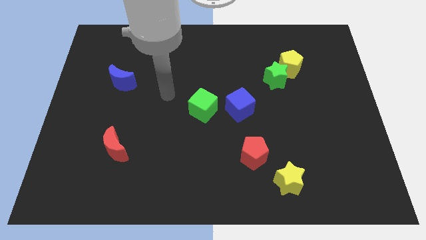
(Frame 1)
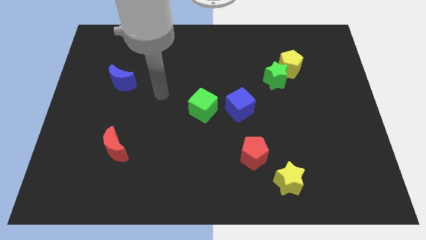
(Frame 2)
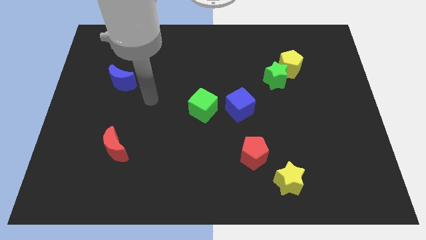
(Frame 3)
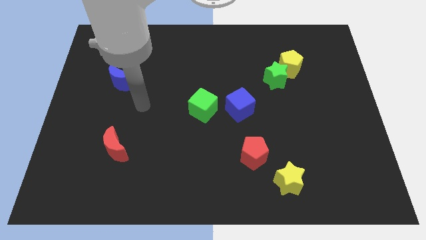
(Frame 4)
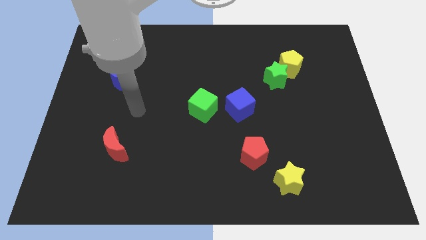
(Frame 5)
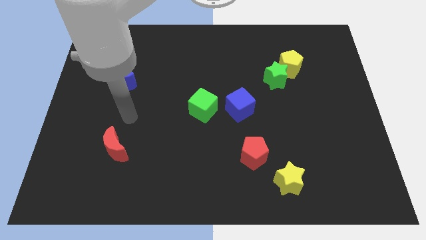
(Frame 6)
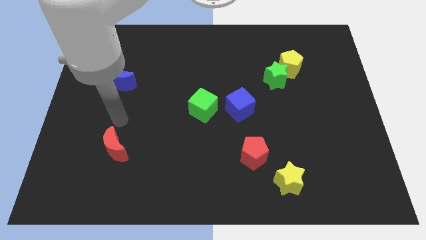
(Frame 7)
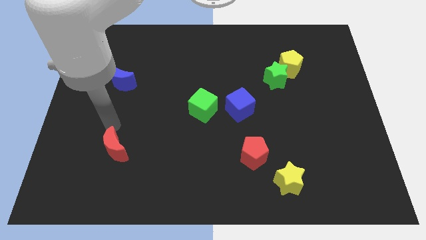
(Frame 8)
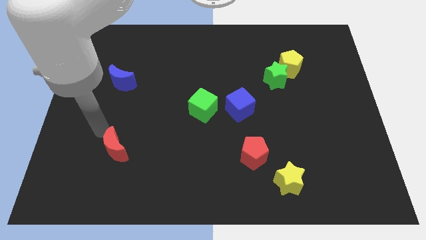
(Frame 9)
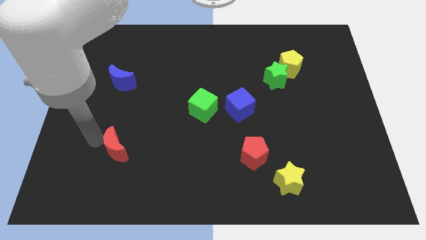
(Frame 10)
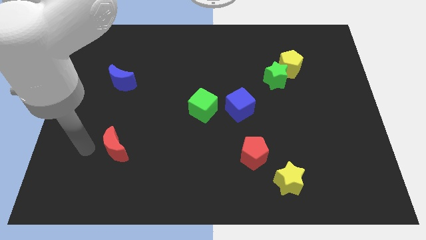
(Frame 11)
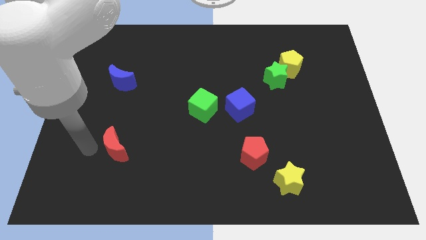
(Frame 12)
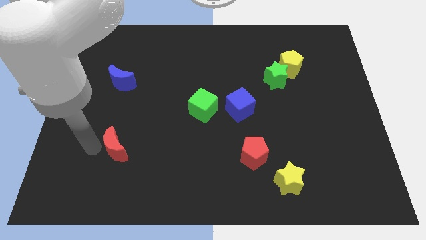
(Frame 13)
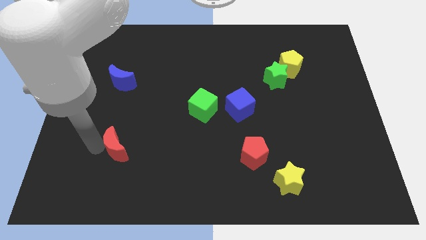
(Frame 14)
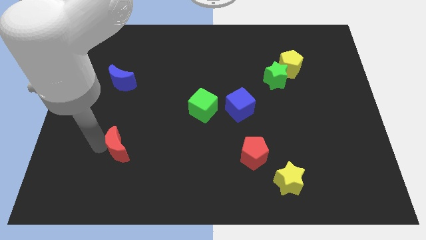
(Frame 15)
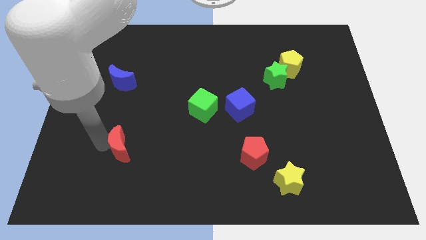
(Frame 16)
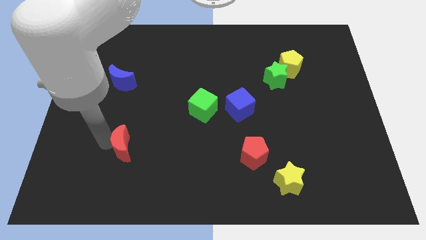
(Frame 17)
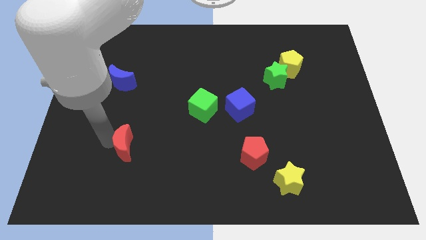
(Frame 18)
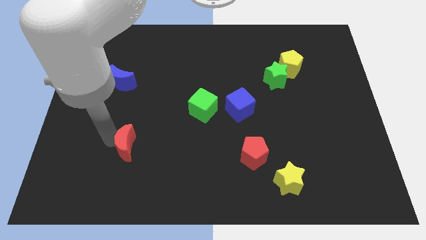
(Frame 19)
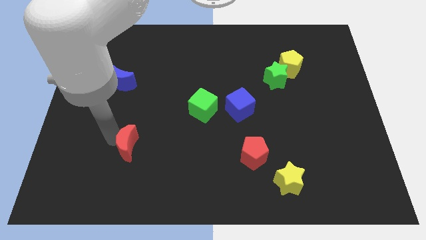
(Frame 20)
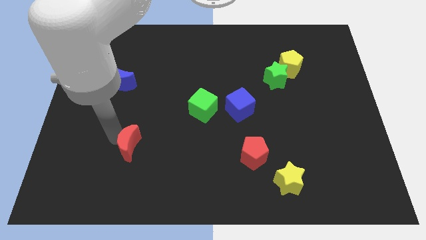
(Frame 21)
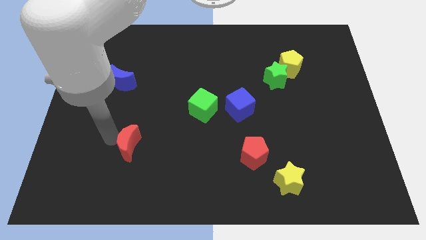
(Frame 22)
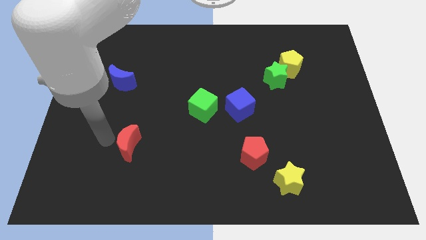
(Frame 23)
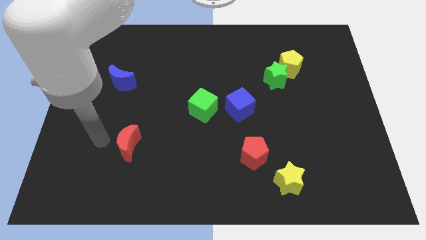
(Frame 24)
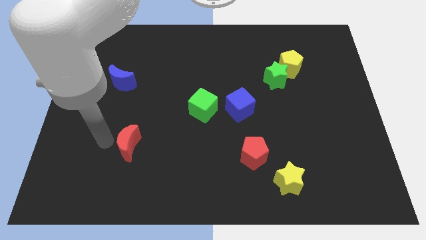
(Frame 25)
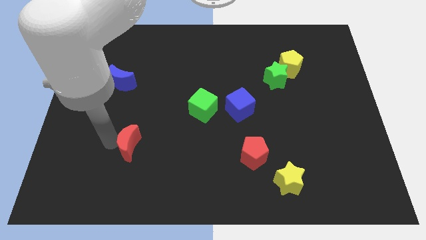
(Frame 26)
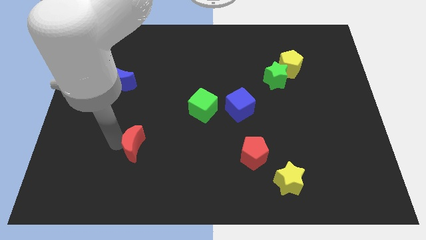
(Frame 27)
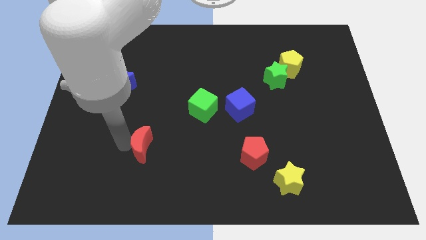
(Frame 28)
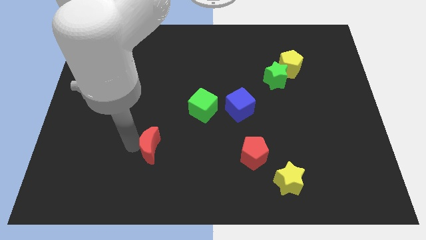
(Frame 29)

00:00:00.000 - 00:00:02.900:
slightly push the red moon to the right

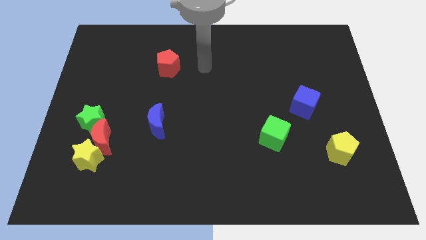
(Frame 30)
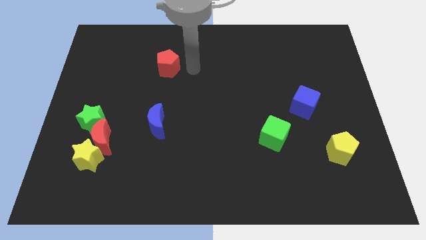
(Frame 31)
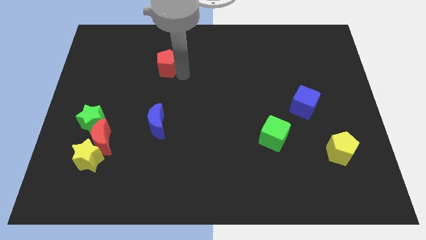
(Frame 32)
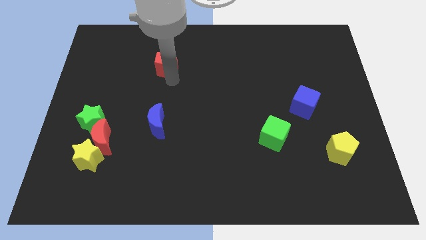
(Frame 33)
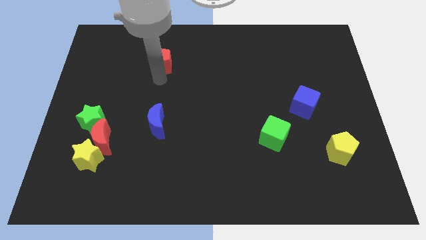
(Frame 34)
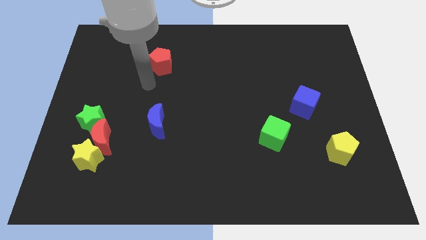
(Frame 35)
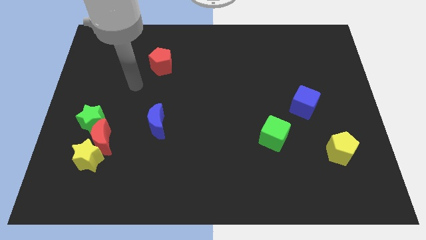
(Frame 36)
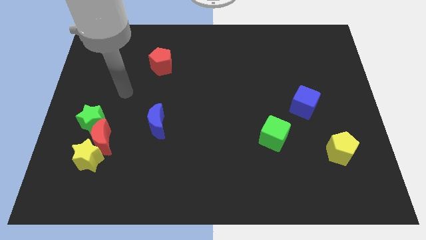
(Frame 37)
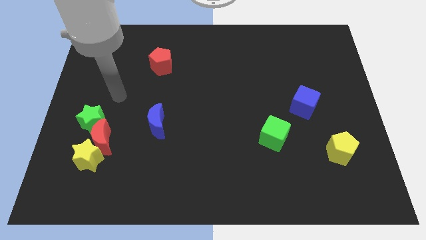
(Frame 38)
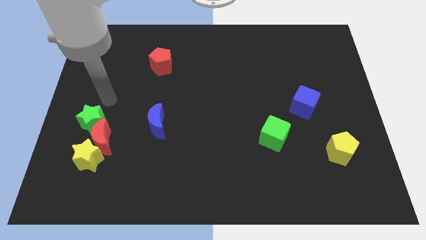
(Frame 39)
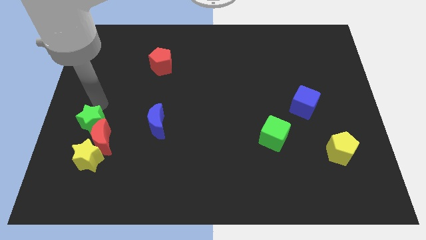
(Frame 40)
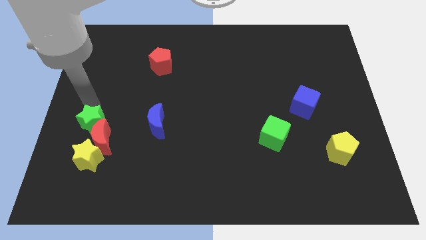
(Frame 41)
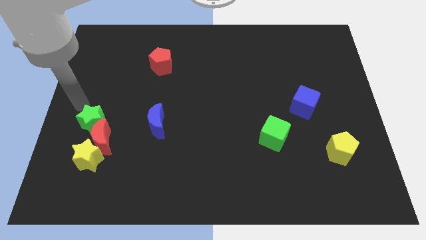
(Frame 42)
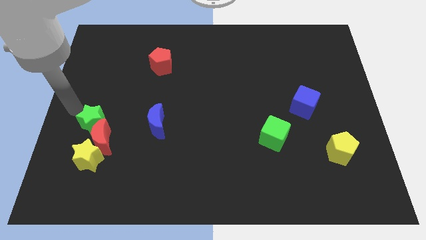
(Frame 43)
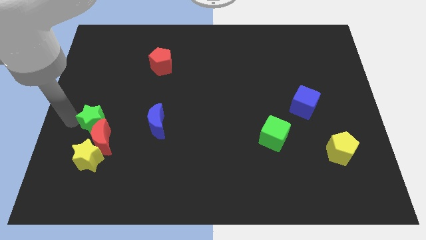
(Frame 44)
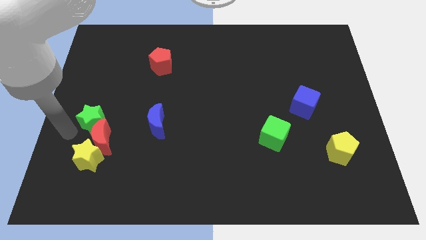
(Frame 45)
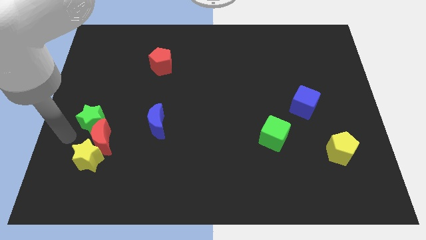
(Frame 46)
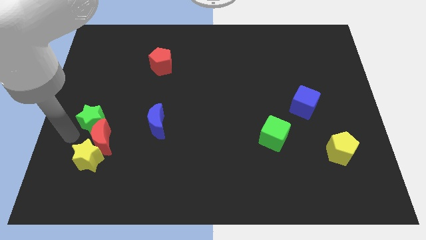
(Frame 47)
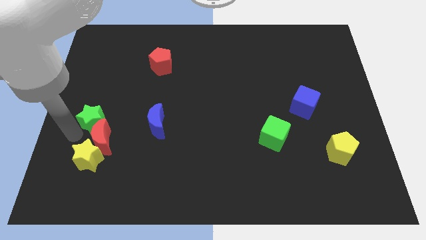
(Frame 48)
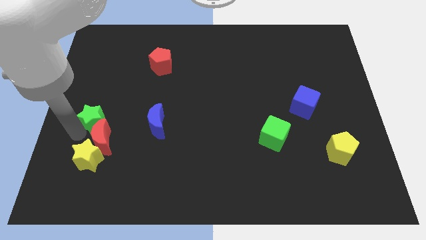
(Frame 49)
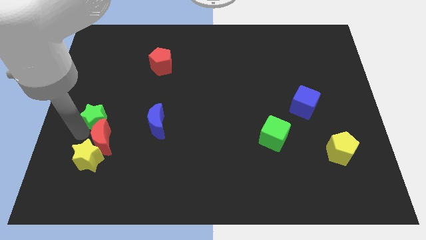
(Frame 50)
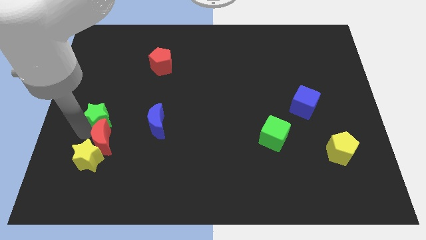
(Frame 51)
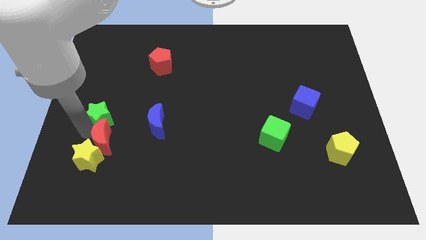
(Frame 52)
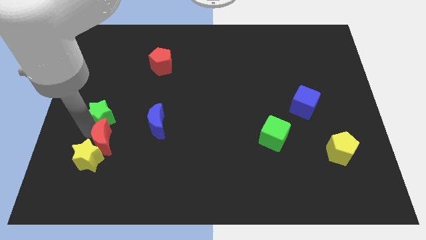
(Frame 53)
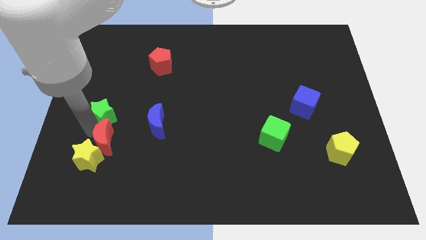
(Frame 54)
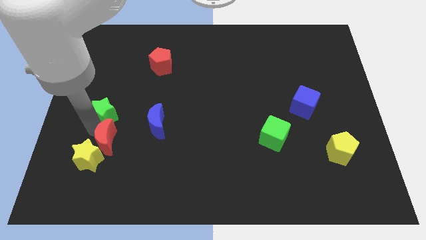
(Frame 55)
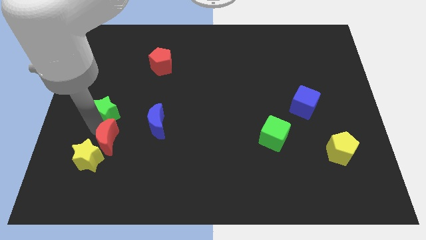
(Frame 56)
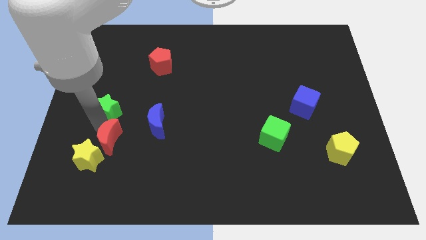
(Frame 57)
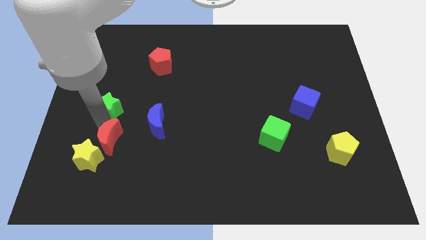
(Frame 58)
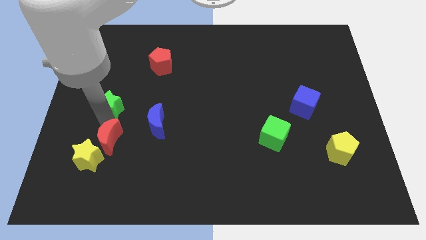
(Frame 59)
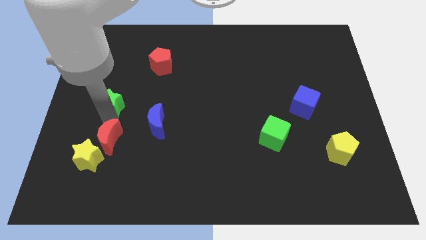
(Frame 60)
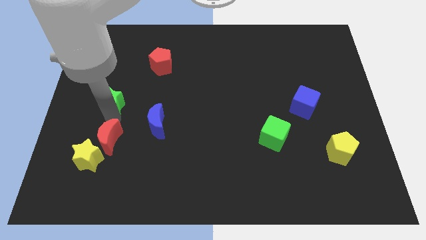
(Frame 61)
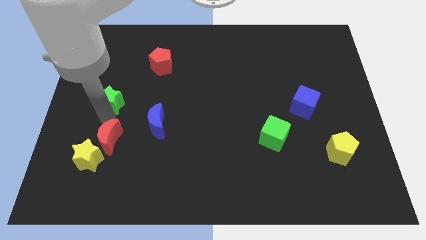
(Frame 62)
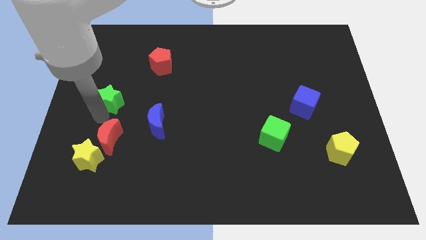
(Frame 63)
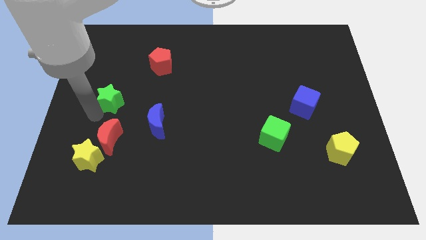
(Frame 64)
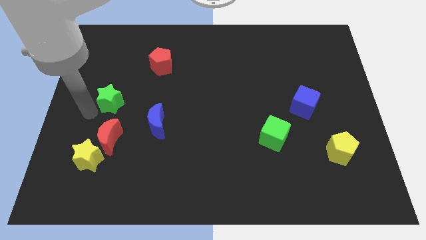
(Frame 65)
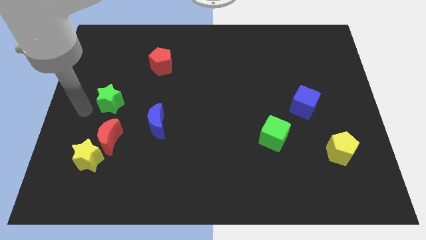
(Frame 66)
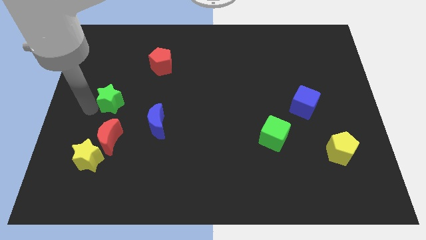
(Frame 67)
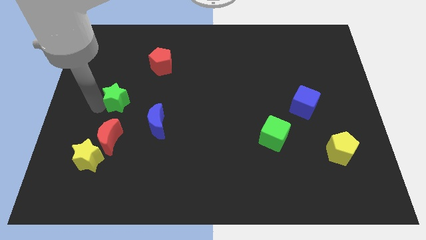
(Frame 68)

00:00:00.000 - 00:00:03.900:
push the green star upwards and then to the right a little

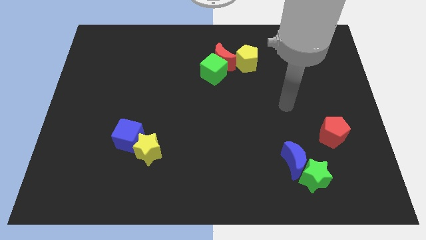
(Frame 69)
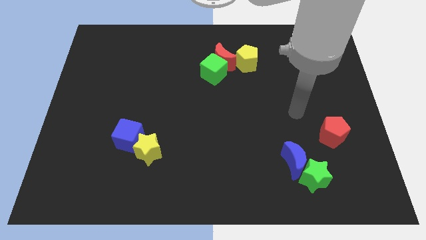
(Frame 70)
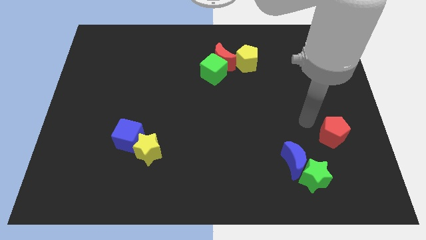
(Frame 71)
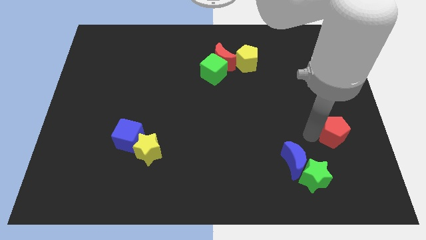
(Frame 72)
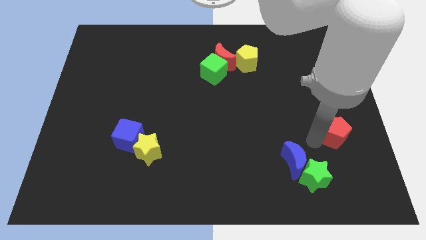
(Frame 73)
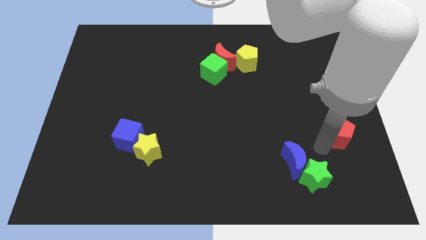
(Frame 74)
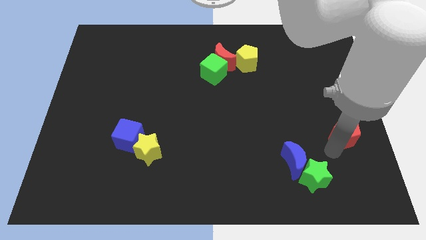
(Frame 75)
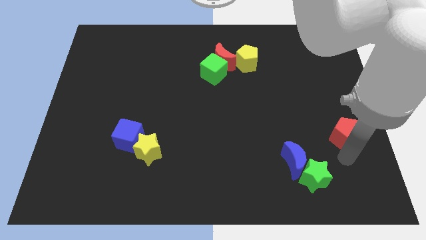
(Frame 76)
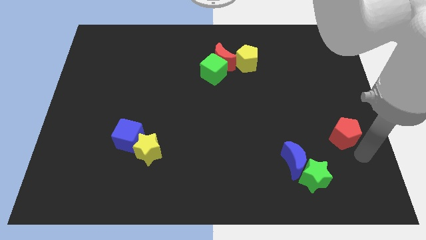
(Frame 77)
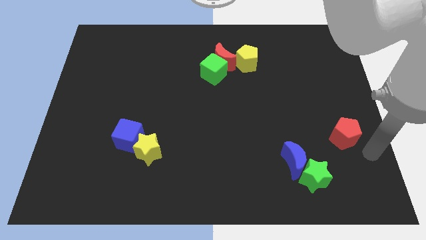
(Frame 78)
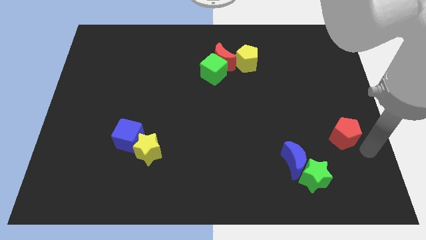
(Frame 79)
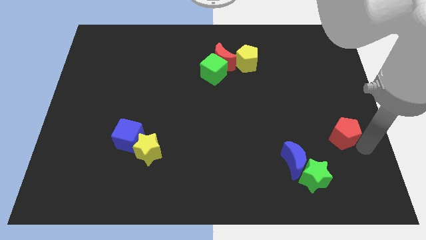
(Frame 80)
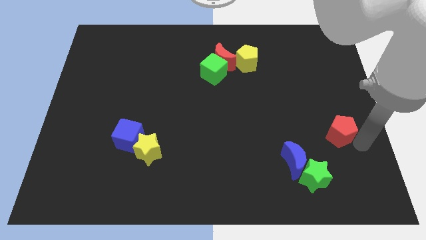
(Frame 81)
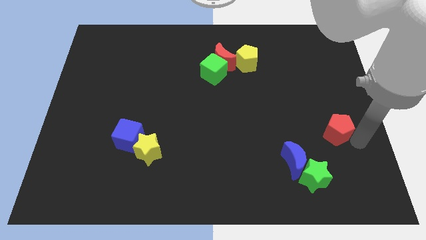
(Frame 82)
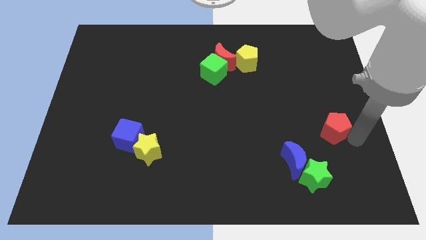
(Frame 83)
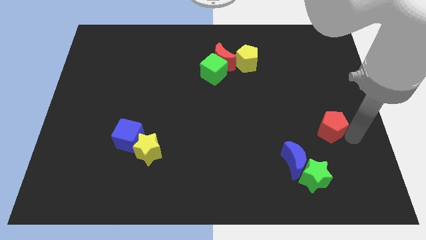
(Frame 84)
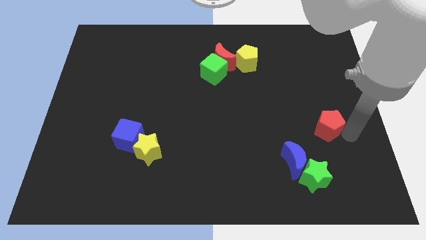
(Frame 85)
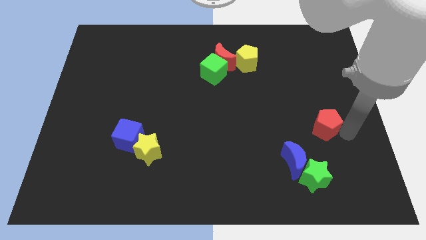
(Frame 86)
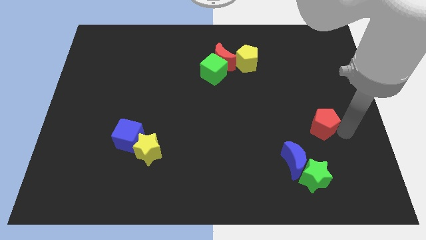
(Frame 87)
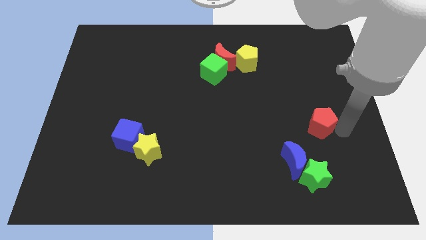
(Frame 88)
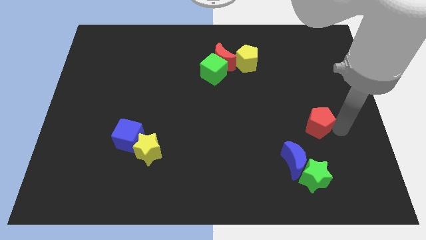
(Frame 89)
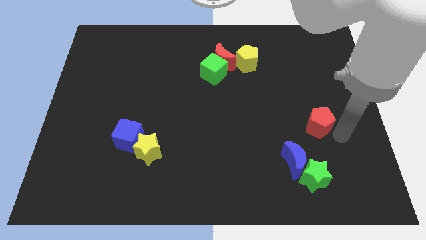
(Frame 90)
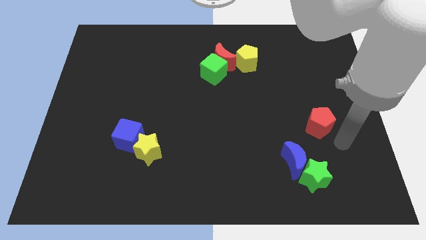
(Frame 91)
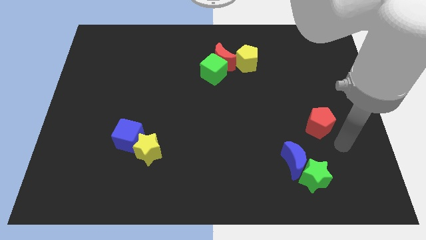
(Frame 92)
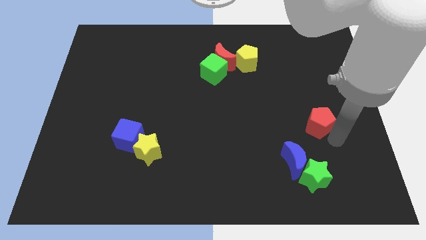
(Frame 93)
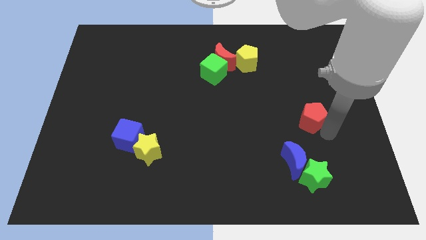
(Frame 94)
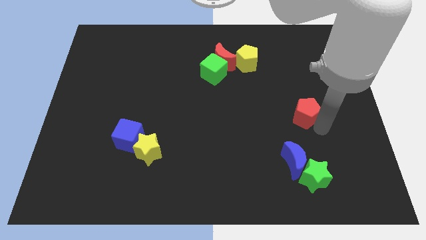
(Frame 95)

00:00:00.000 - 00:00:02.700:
move the red pentagon upwards and then to the left a bit
